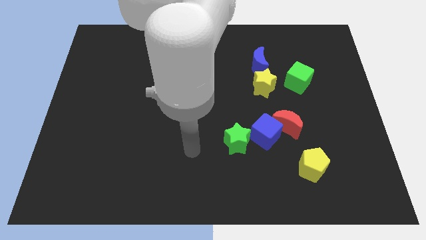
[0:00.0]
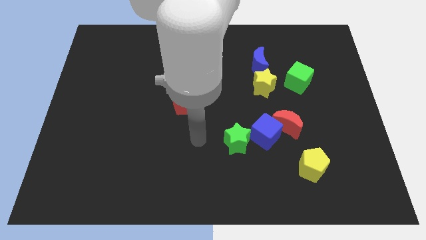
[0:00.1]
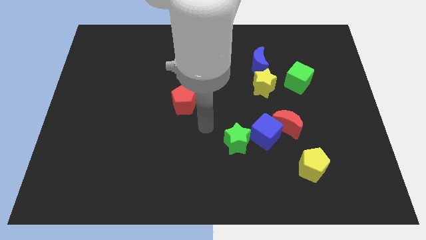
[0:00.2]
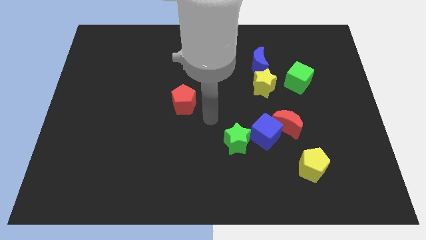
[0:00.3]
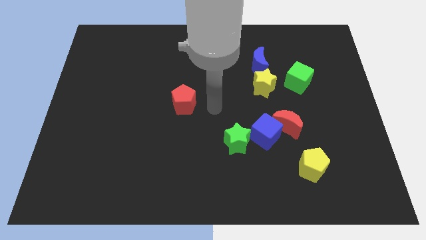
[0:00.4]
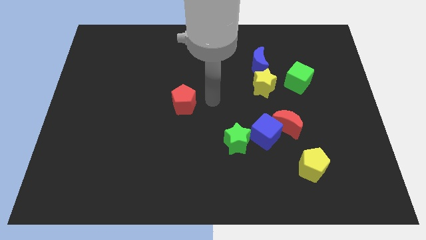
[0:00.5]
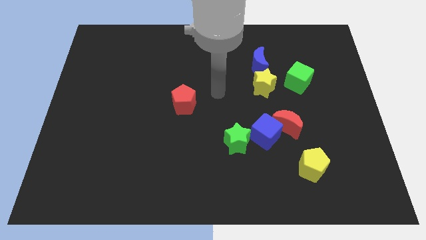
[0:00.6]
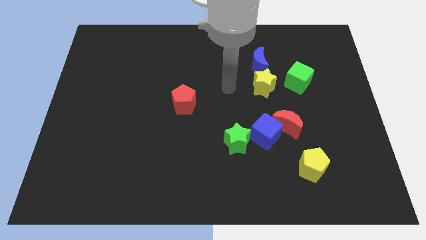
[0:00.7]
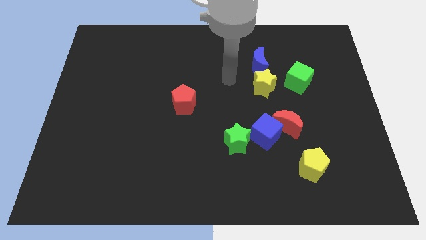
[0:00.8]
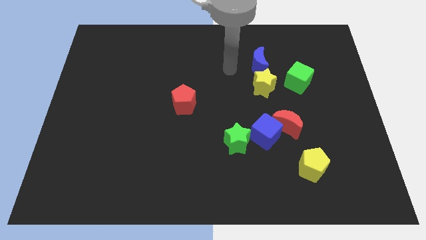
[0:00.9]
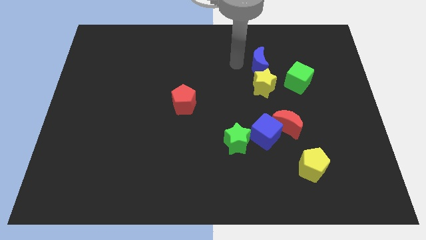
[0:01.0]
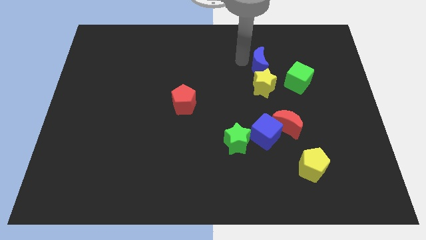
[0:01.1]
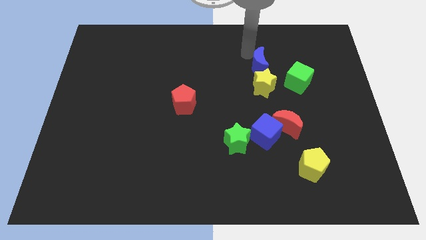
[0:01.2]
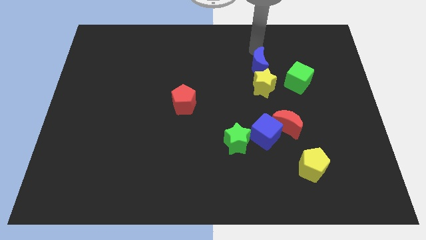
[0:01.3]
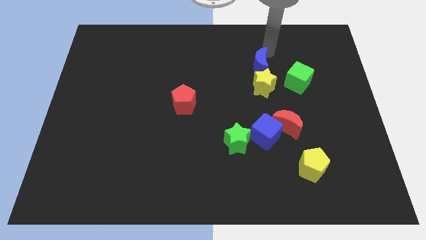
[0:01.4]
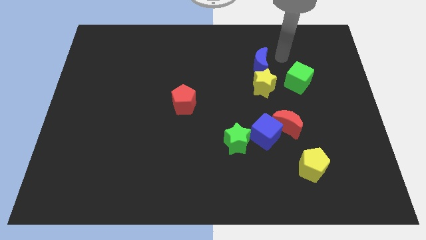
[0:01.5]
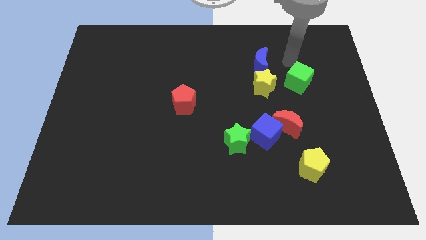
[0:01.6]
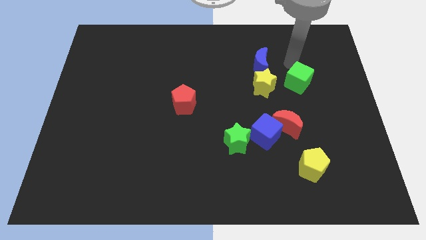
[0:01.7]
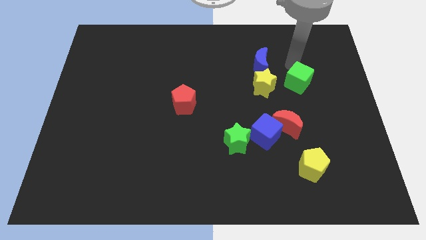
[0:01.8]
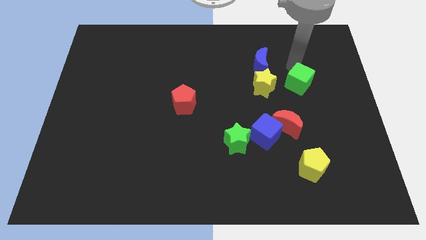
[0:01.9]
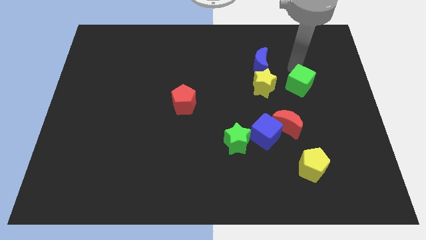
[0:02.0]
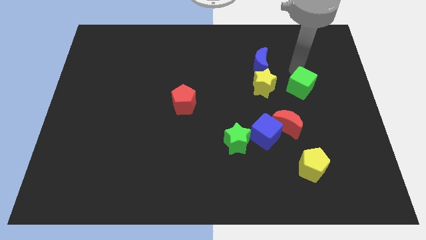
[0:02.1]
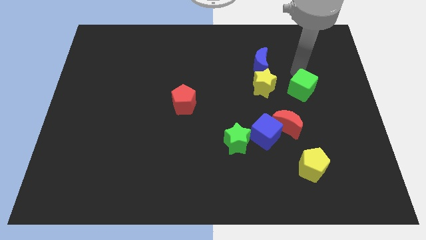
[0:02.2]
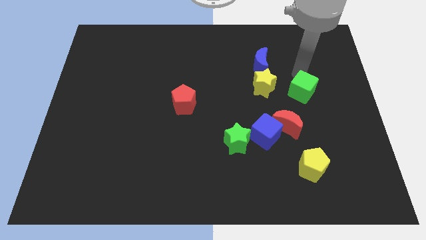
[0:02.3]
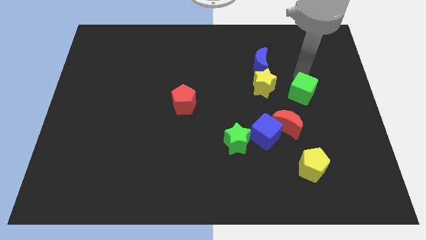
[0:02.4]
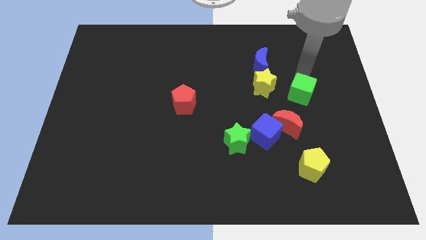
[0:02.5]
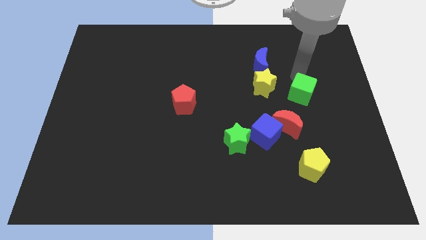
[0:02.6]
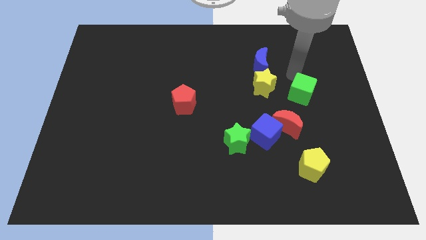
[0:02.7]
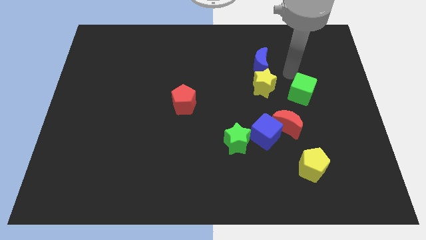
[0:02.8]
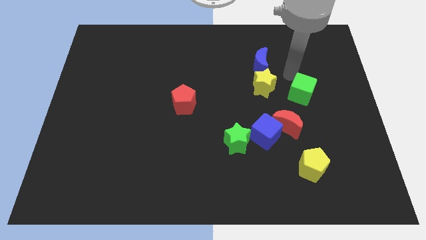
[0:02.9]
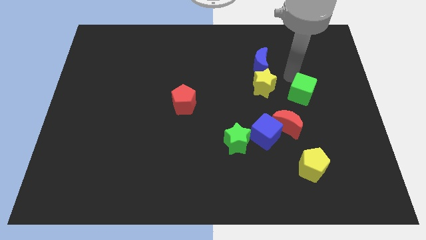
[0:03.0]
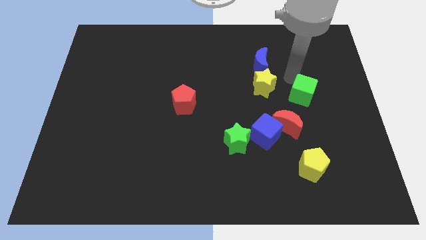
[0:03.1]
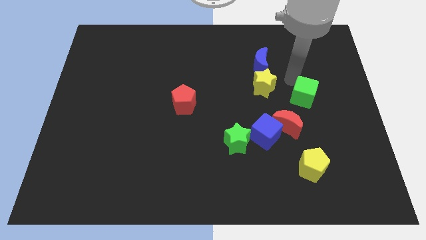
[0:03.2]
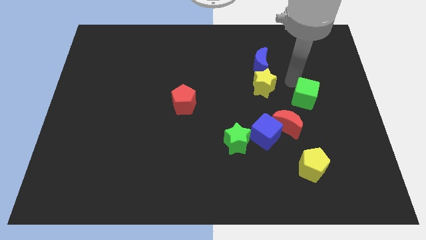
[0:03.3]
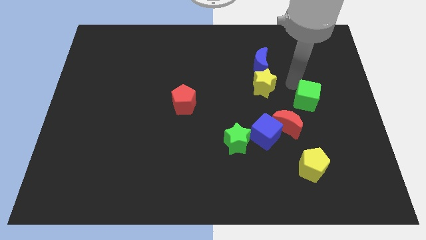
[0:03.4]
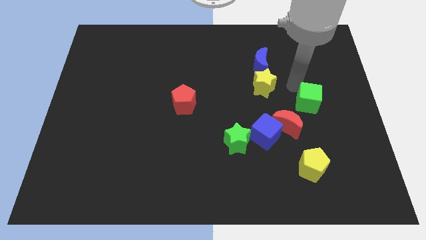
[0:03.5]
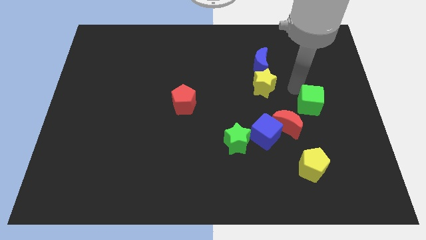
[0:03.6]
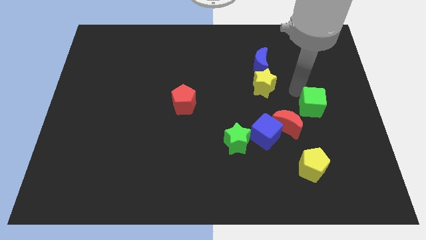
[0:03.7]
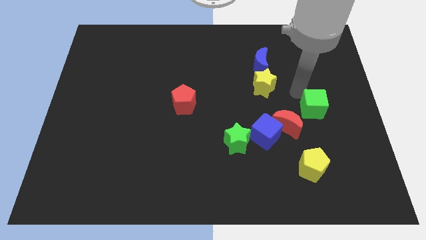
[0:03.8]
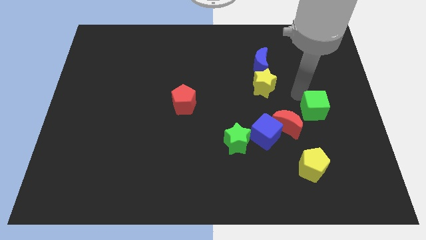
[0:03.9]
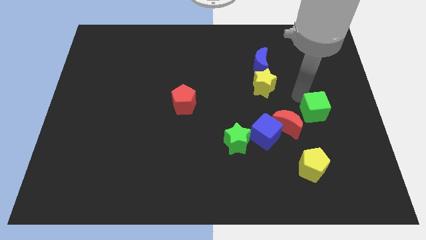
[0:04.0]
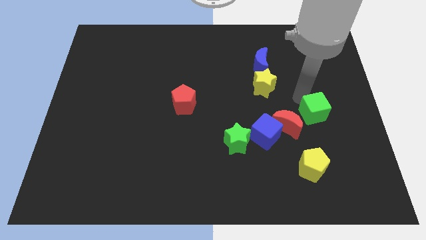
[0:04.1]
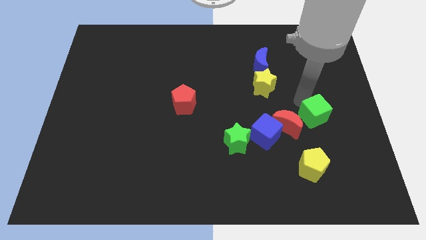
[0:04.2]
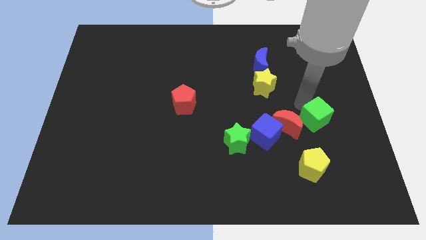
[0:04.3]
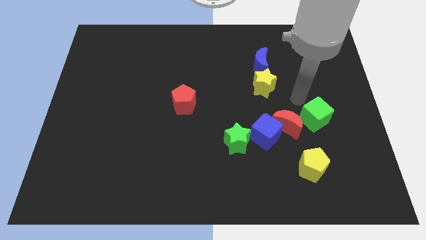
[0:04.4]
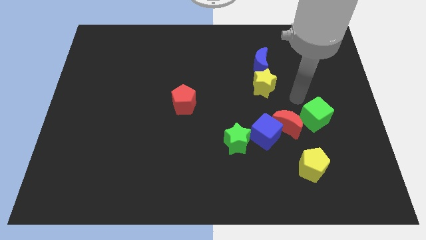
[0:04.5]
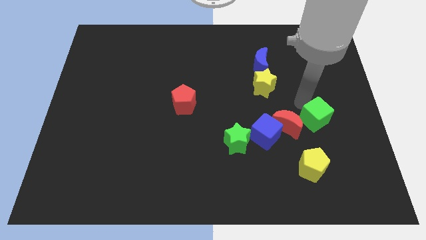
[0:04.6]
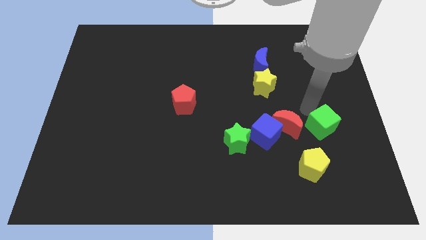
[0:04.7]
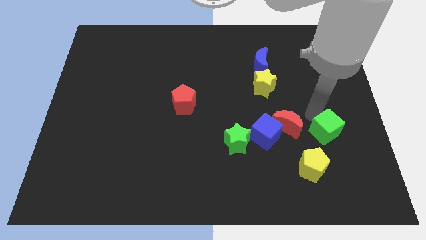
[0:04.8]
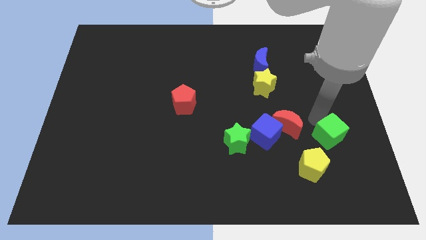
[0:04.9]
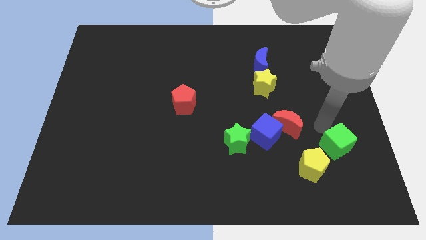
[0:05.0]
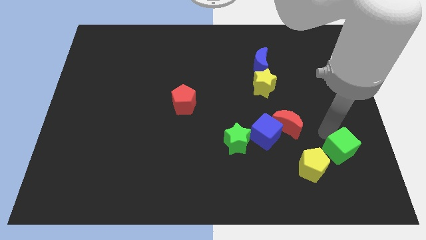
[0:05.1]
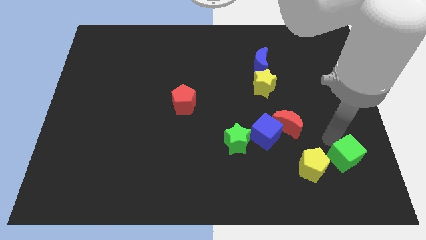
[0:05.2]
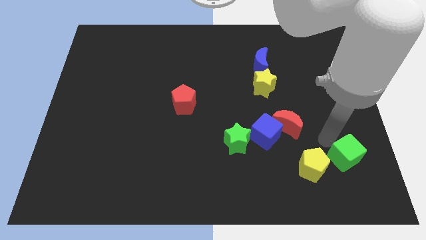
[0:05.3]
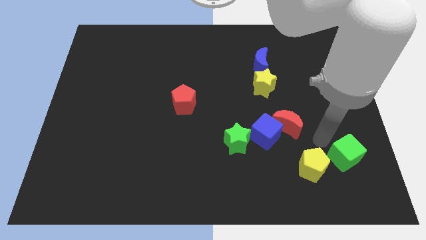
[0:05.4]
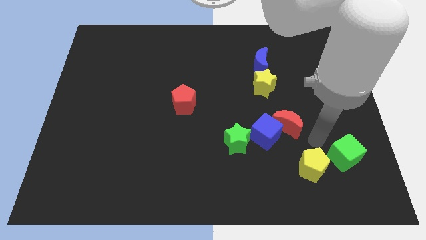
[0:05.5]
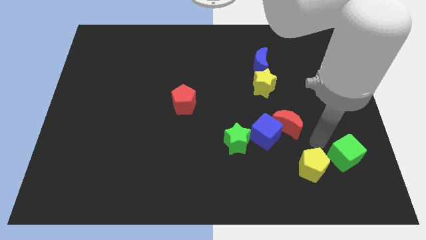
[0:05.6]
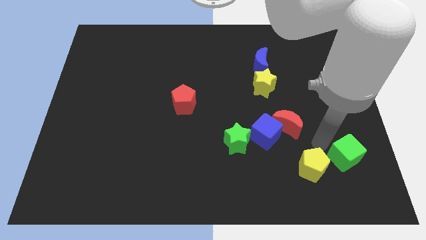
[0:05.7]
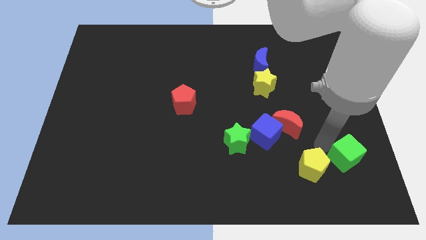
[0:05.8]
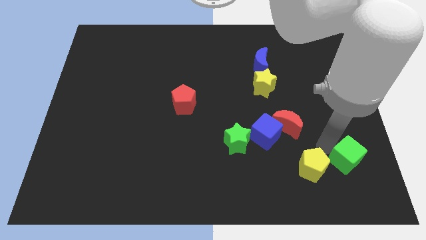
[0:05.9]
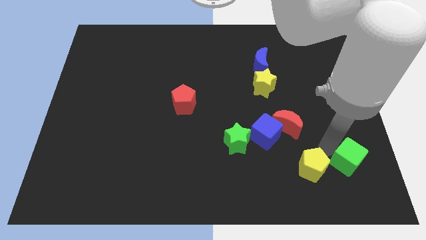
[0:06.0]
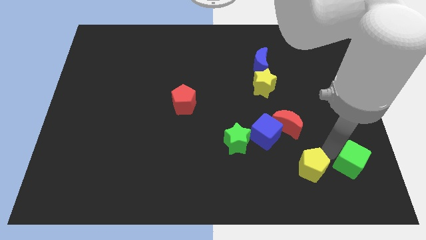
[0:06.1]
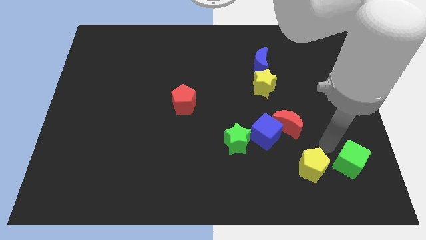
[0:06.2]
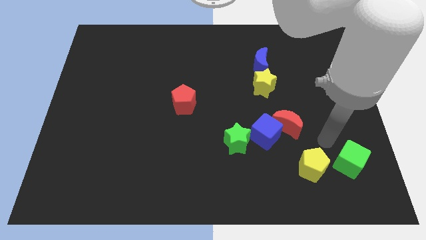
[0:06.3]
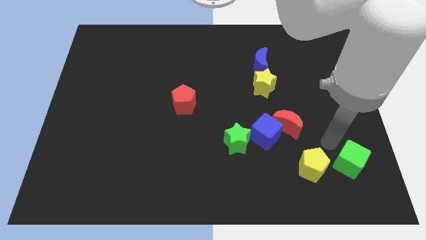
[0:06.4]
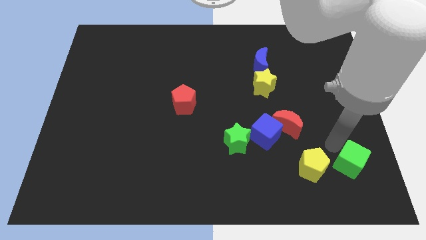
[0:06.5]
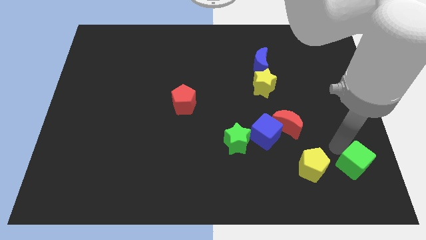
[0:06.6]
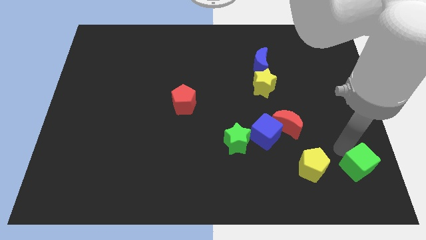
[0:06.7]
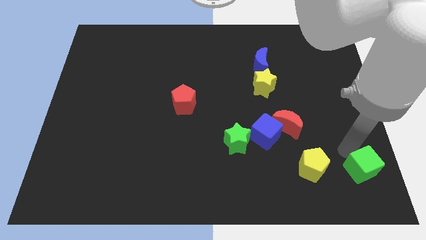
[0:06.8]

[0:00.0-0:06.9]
move the green cube to the bottom right
